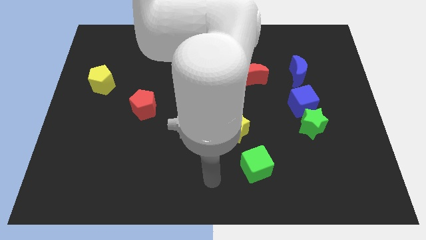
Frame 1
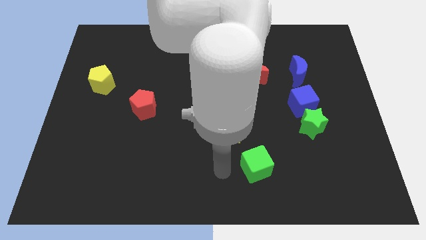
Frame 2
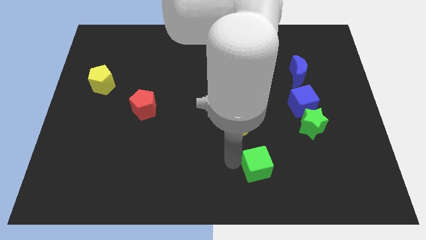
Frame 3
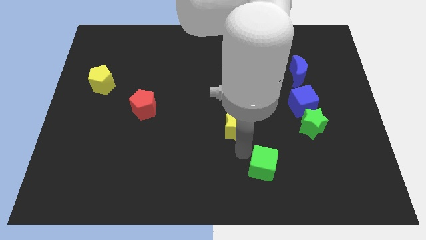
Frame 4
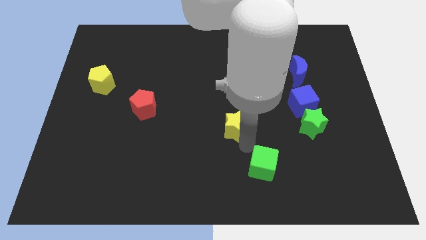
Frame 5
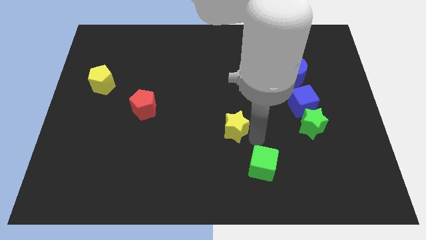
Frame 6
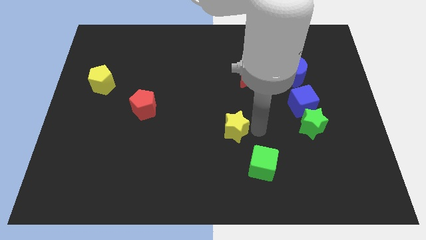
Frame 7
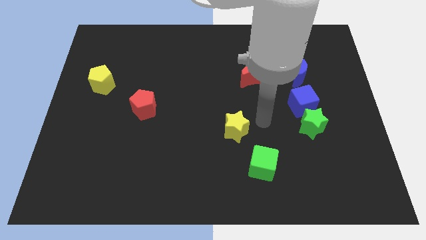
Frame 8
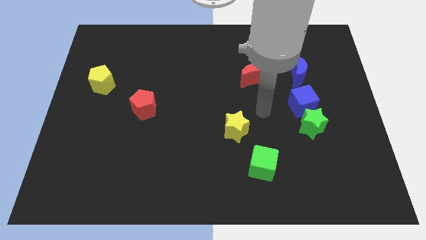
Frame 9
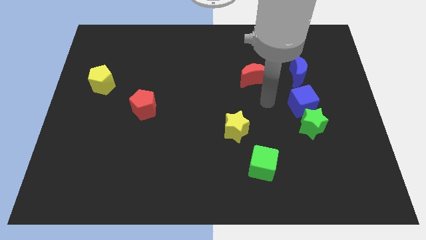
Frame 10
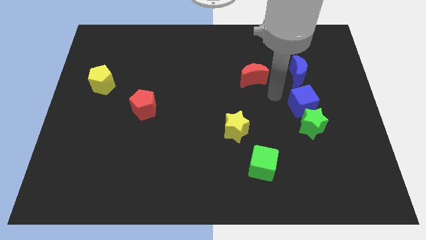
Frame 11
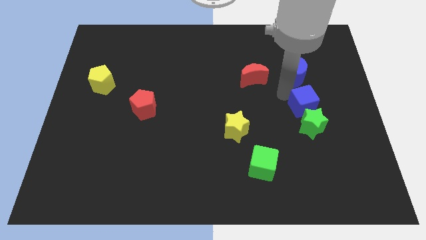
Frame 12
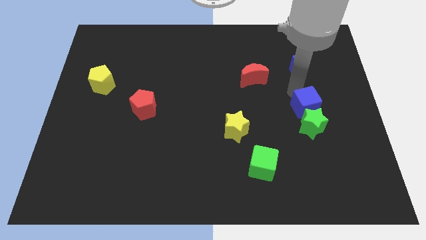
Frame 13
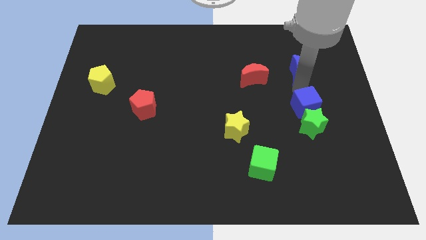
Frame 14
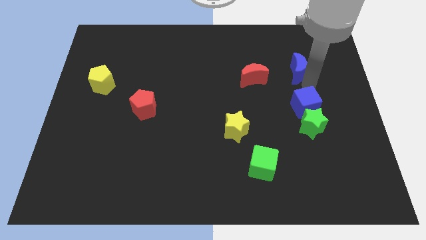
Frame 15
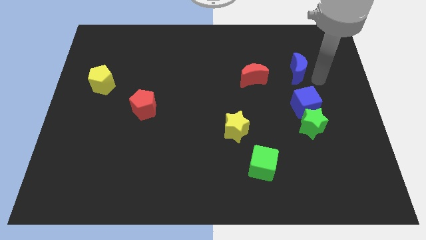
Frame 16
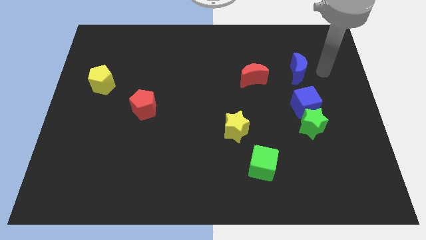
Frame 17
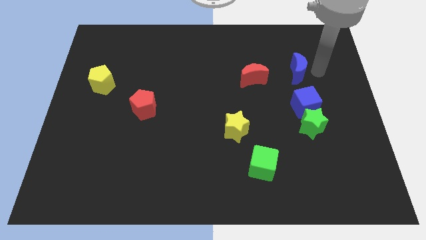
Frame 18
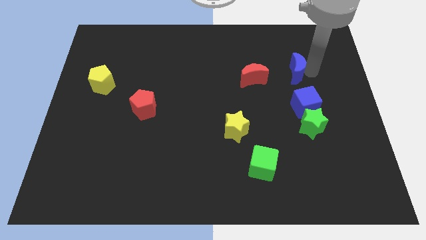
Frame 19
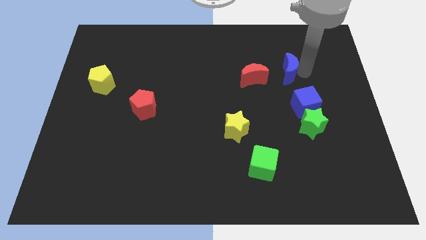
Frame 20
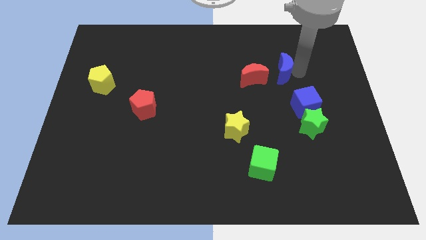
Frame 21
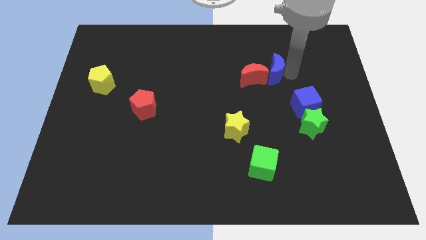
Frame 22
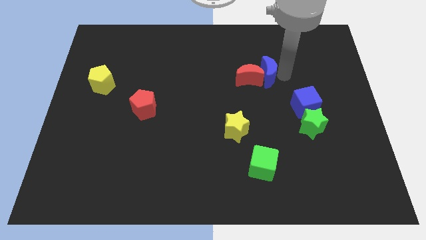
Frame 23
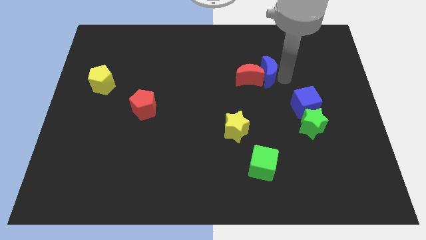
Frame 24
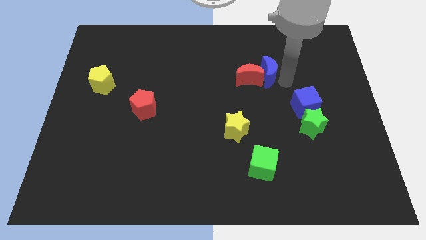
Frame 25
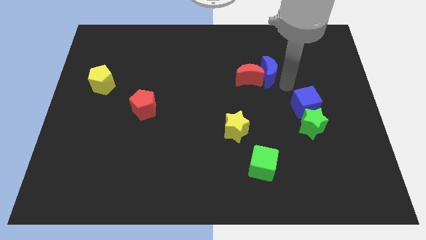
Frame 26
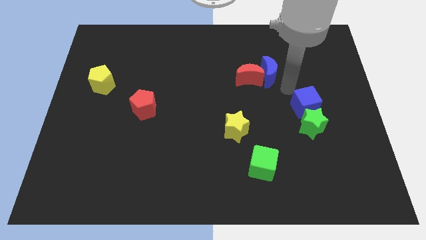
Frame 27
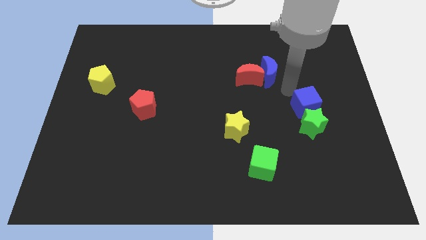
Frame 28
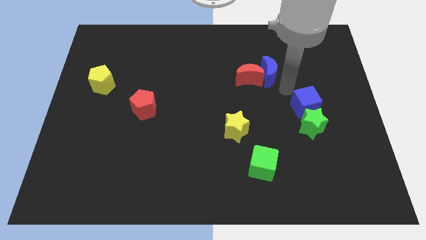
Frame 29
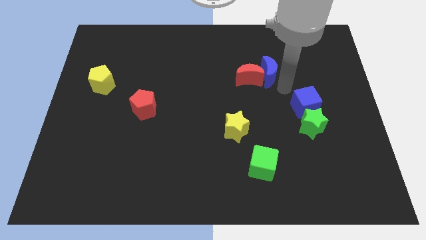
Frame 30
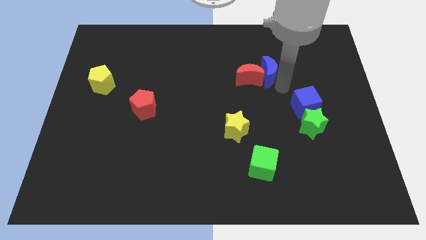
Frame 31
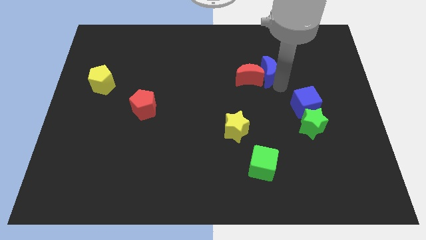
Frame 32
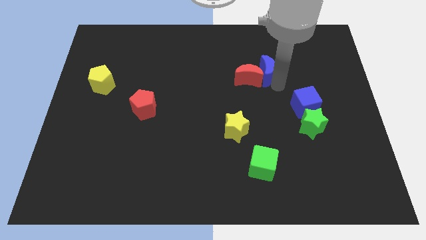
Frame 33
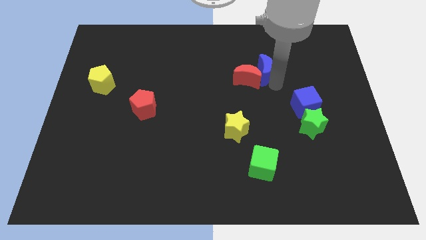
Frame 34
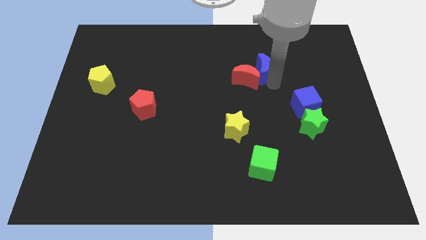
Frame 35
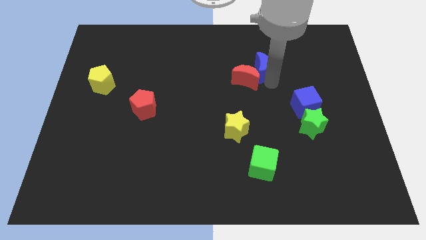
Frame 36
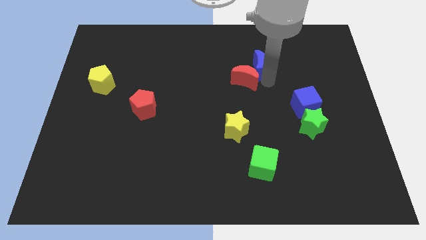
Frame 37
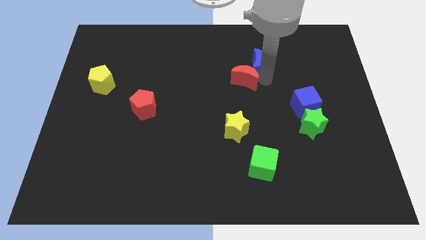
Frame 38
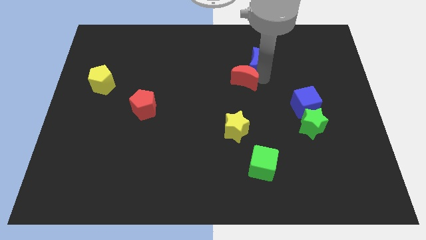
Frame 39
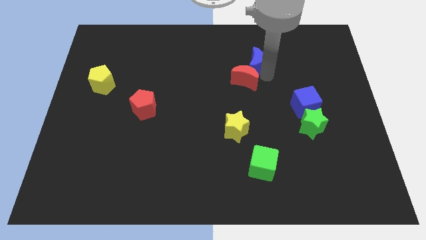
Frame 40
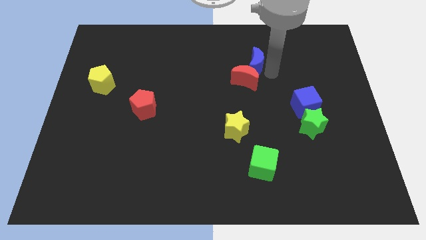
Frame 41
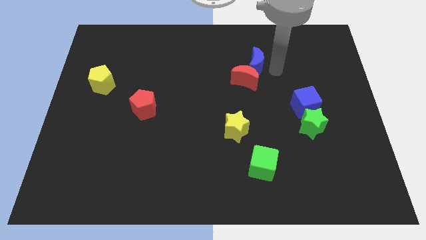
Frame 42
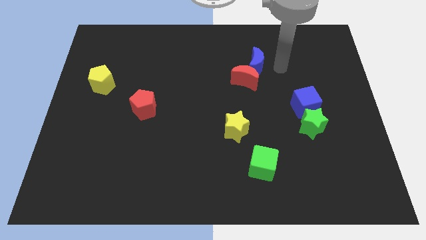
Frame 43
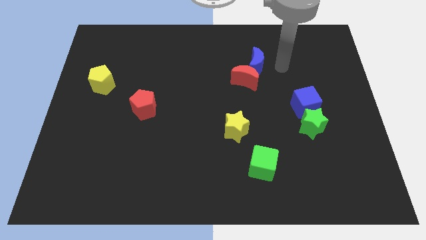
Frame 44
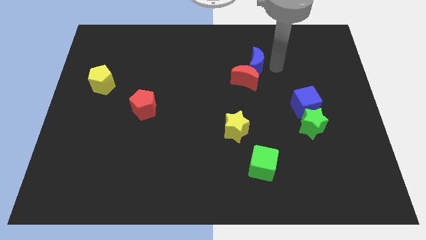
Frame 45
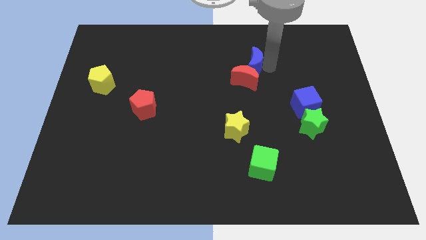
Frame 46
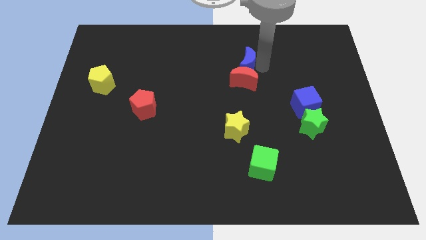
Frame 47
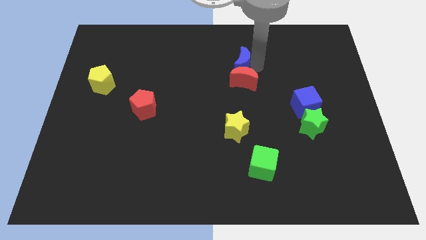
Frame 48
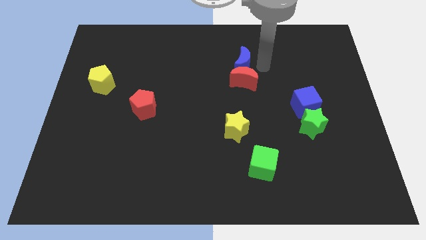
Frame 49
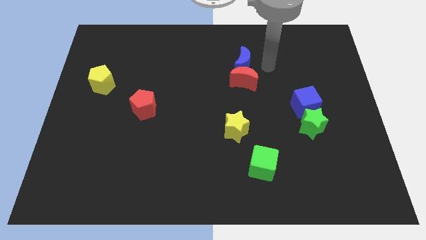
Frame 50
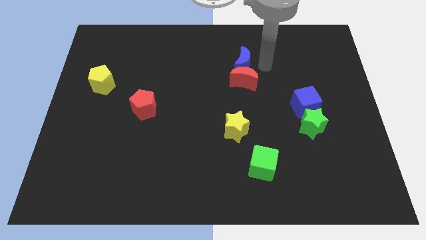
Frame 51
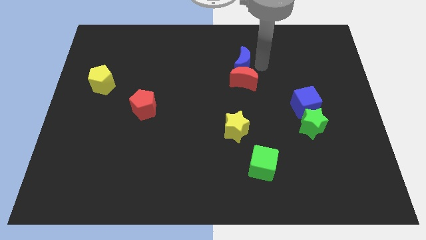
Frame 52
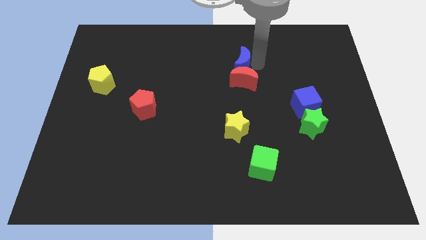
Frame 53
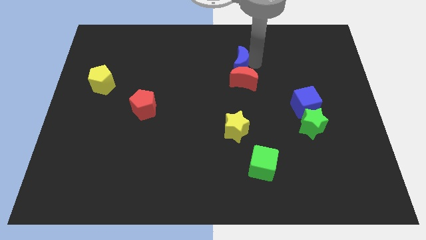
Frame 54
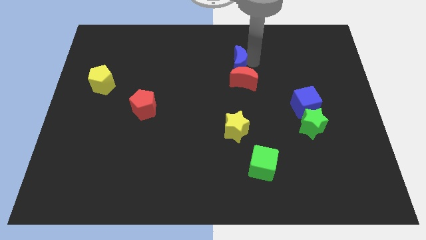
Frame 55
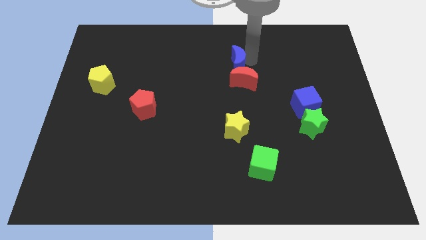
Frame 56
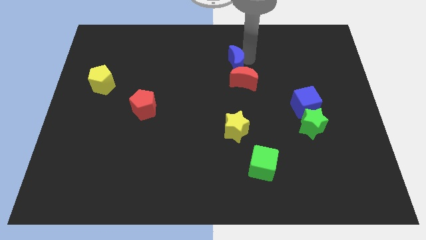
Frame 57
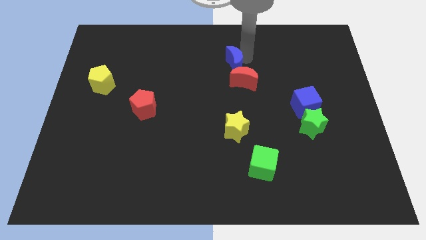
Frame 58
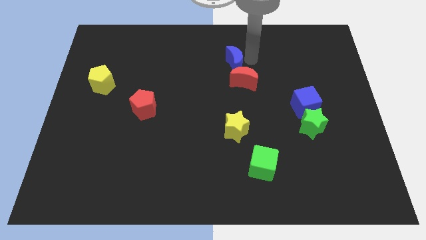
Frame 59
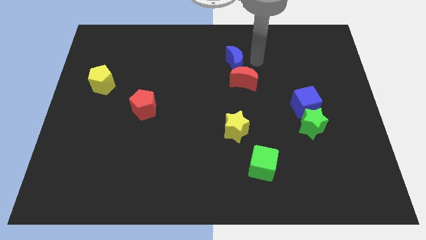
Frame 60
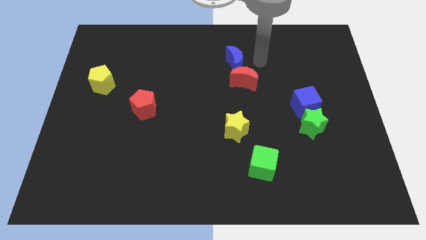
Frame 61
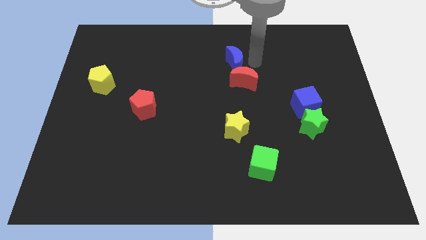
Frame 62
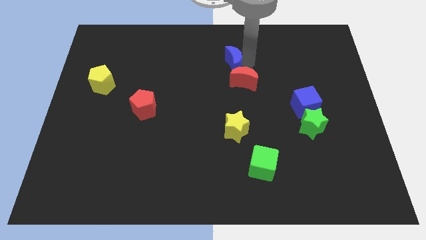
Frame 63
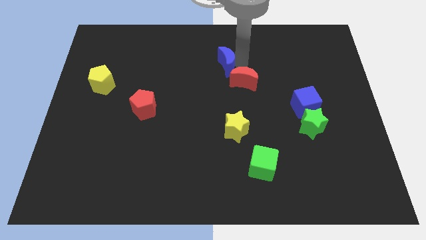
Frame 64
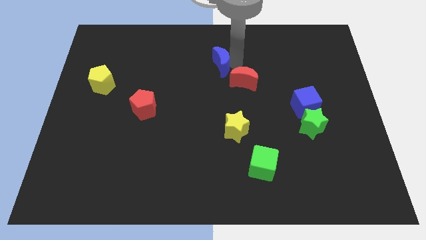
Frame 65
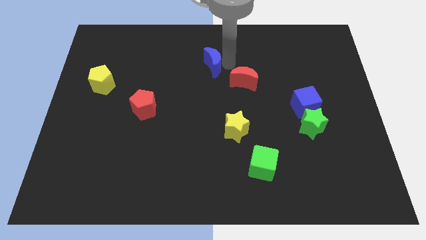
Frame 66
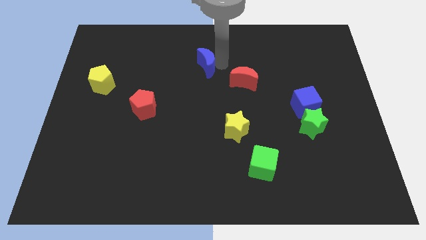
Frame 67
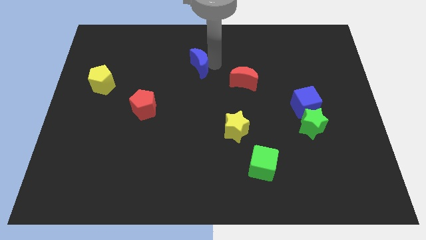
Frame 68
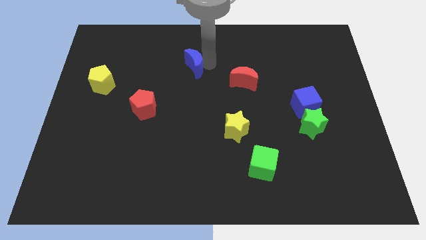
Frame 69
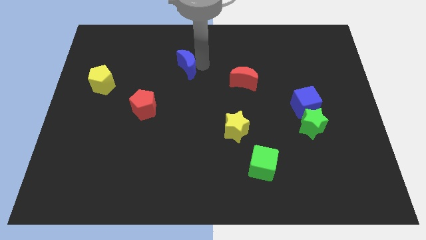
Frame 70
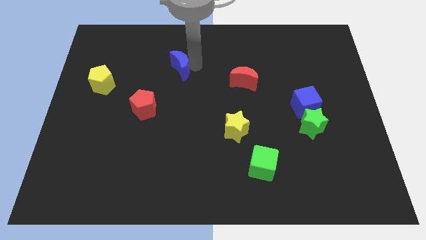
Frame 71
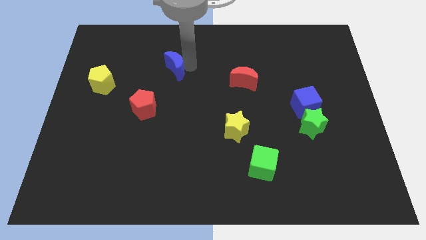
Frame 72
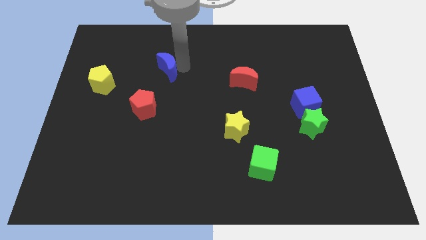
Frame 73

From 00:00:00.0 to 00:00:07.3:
slide the blue moon to the top of the red pentagon

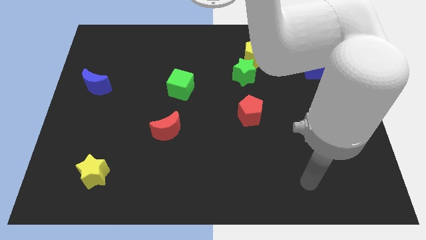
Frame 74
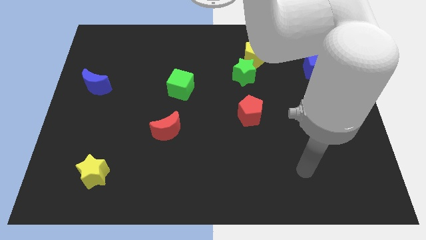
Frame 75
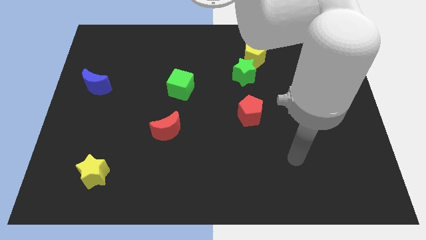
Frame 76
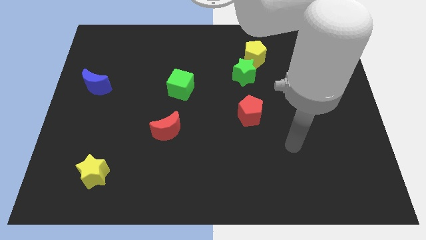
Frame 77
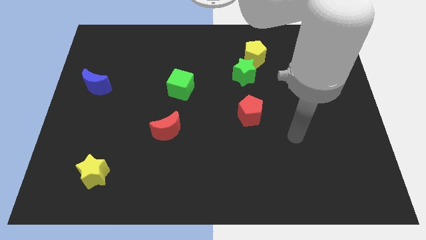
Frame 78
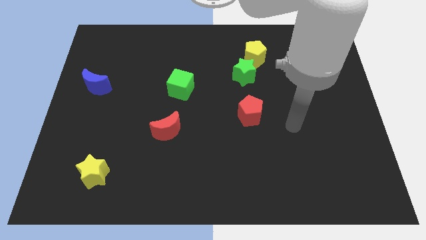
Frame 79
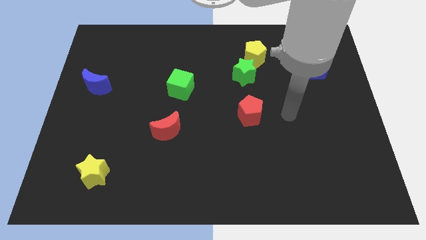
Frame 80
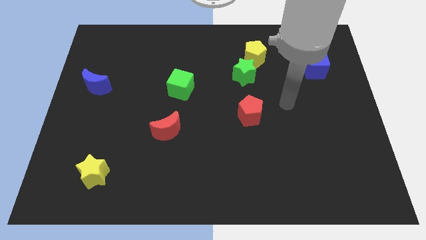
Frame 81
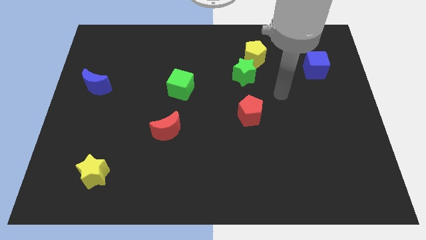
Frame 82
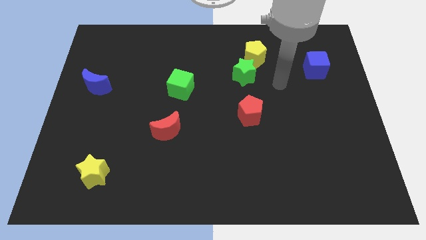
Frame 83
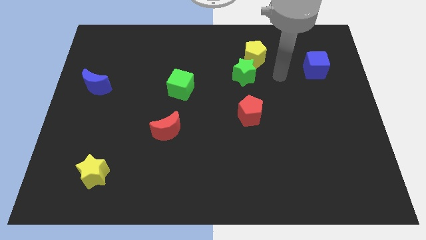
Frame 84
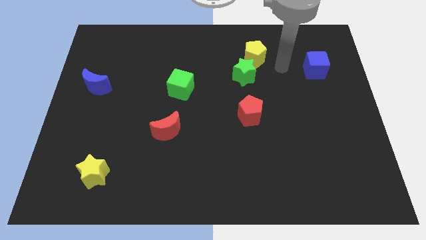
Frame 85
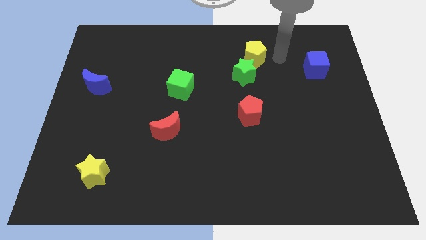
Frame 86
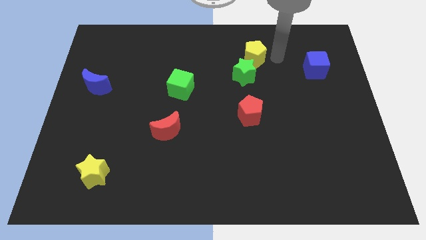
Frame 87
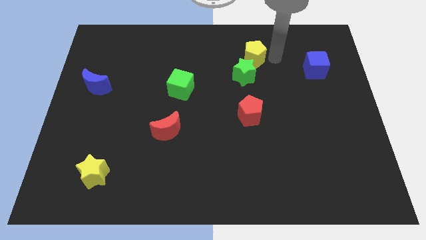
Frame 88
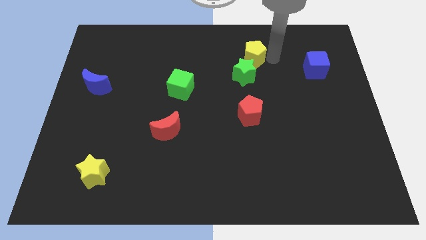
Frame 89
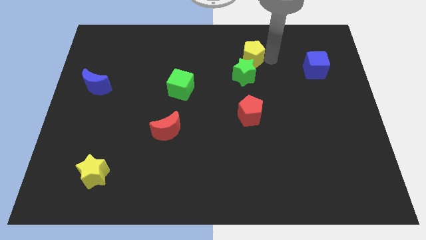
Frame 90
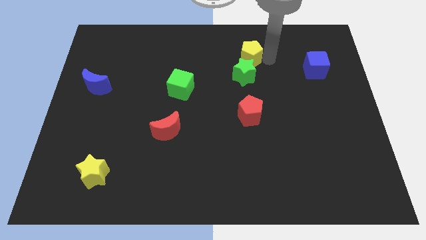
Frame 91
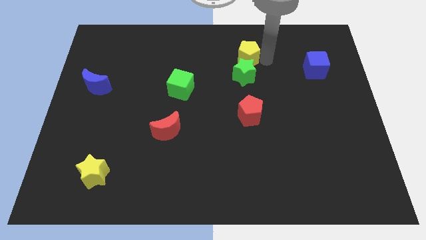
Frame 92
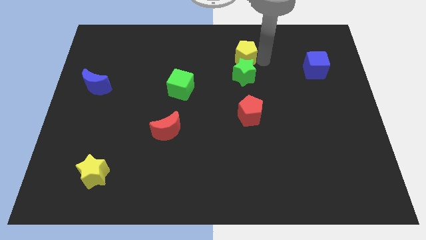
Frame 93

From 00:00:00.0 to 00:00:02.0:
move the yellow pentagon to the top left side of the green star
